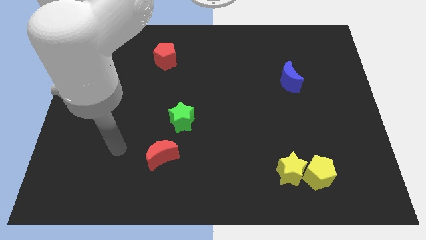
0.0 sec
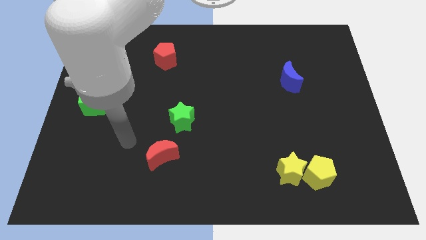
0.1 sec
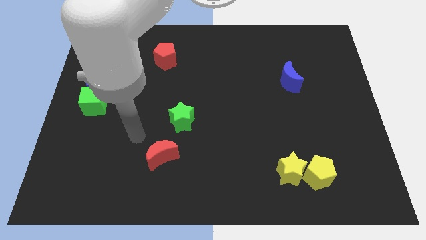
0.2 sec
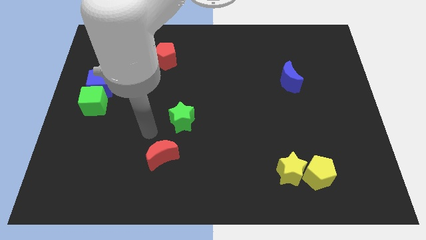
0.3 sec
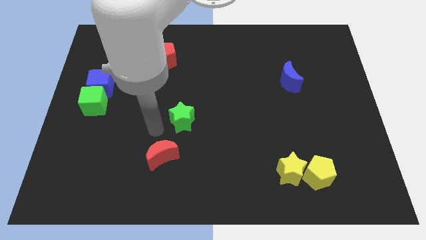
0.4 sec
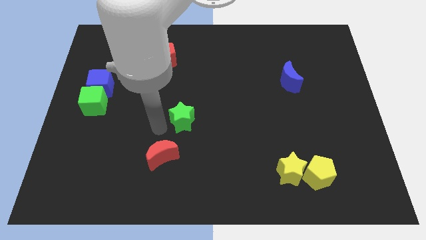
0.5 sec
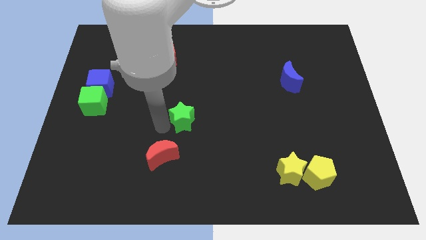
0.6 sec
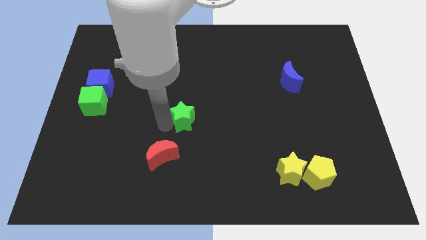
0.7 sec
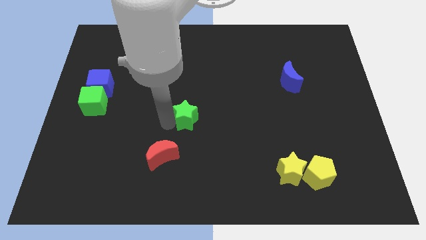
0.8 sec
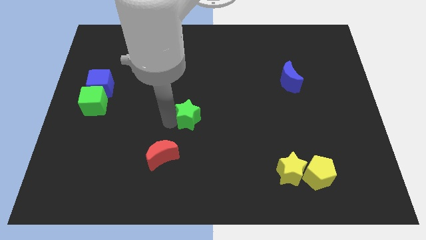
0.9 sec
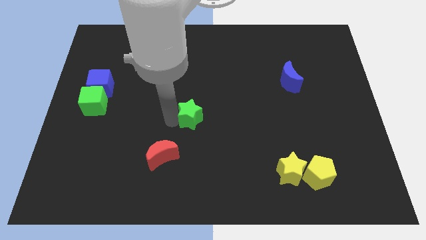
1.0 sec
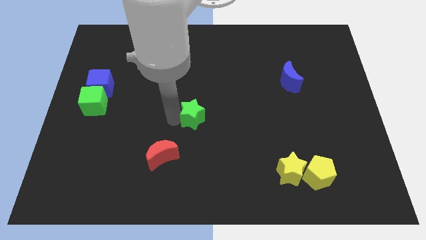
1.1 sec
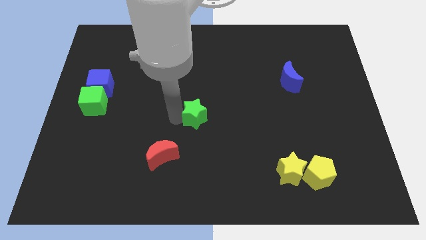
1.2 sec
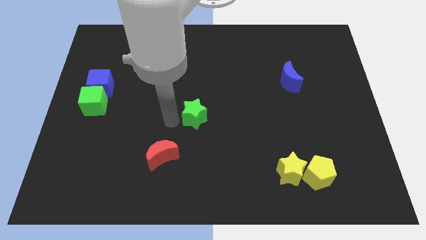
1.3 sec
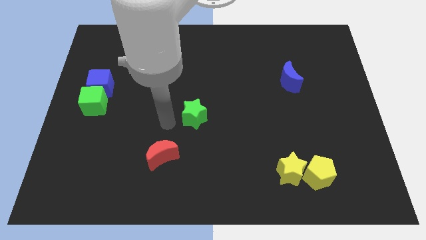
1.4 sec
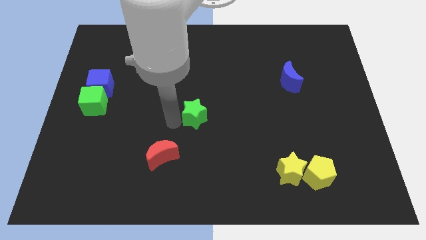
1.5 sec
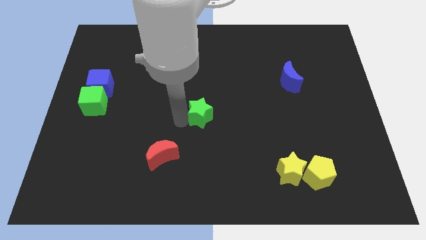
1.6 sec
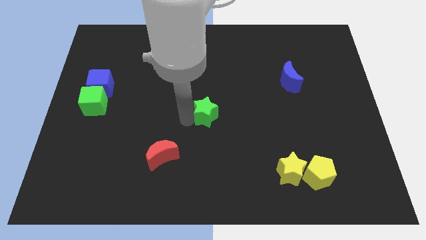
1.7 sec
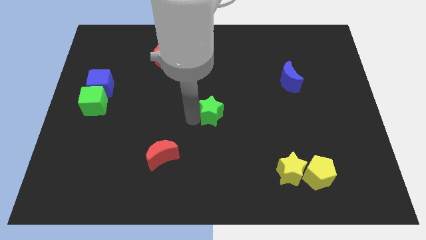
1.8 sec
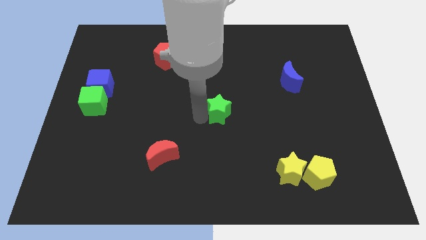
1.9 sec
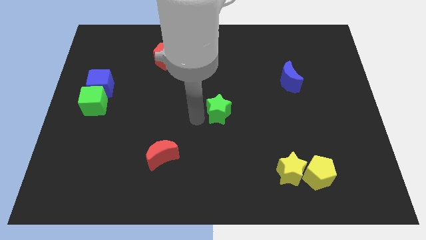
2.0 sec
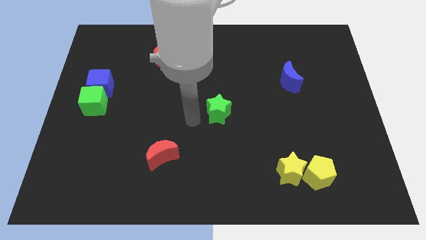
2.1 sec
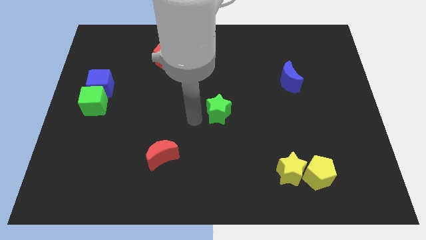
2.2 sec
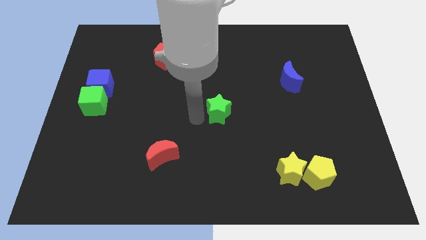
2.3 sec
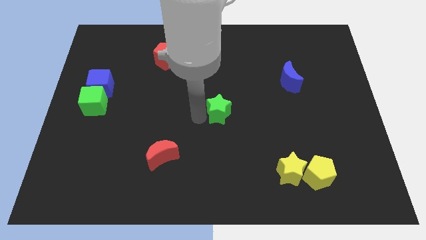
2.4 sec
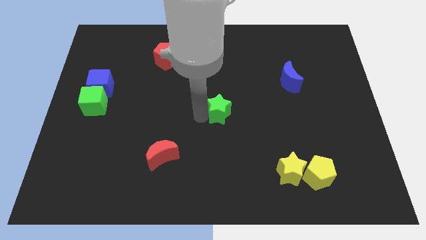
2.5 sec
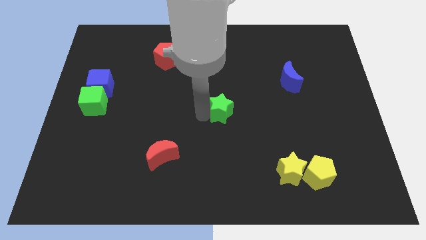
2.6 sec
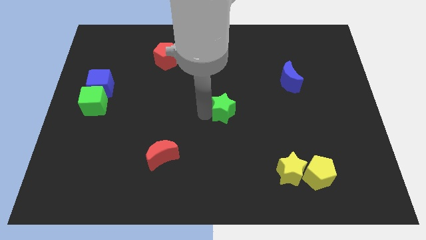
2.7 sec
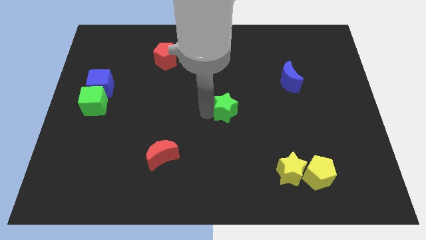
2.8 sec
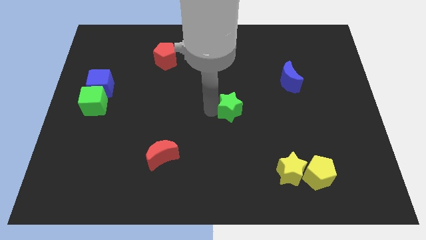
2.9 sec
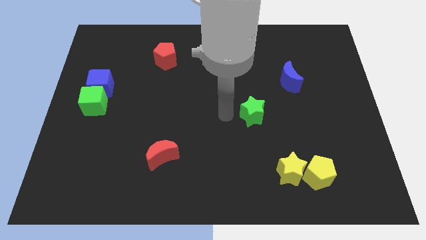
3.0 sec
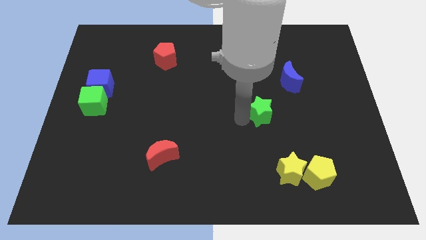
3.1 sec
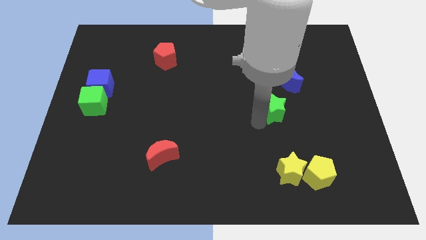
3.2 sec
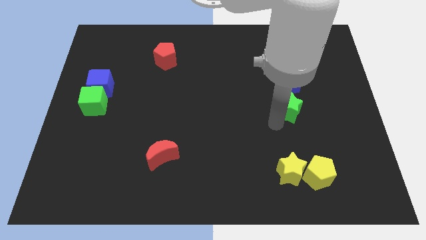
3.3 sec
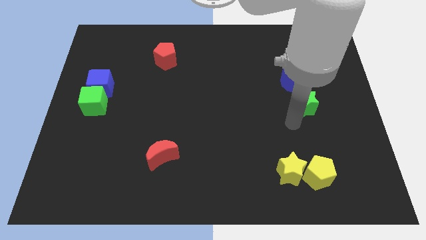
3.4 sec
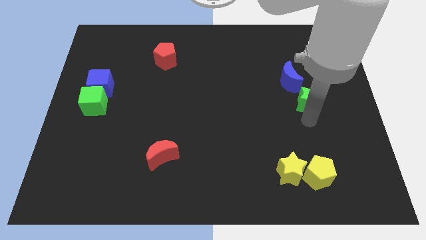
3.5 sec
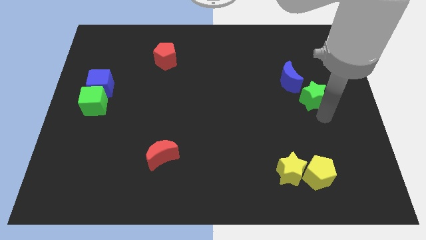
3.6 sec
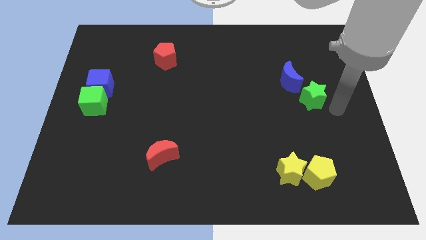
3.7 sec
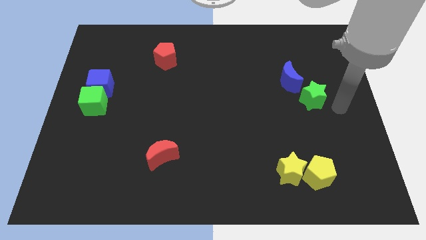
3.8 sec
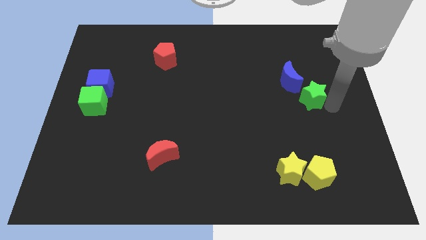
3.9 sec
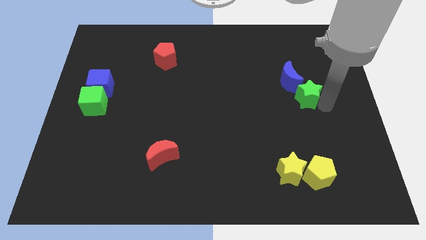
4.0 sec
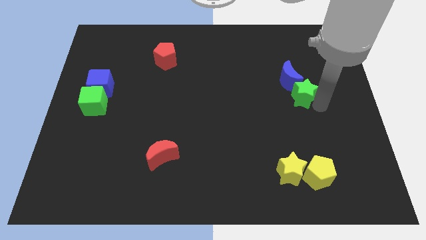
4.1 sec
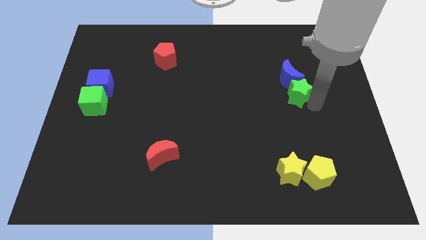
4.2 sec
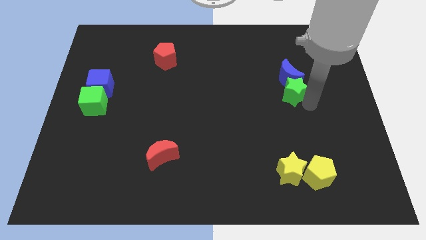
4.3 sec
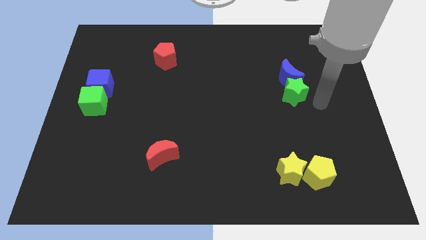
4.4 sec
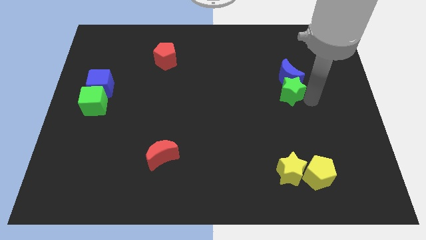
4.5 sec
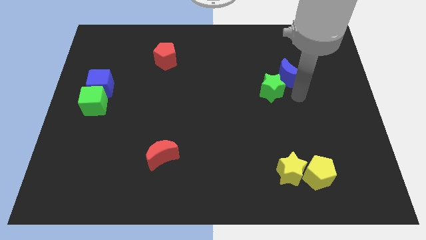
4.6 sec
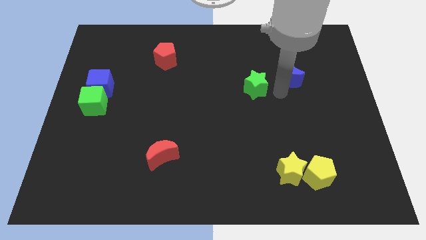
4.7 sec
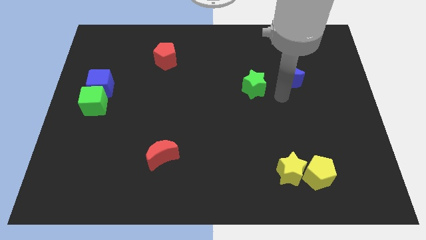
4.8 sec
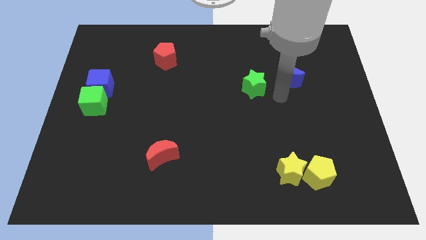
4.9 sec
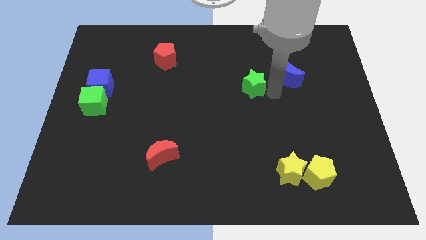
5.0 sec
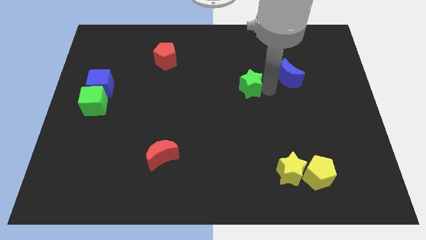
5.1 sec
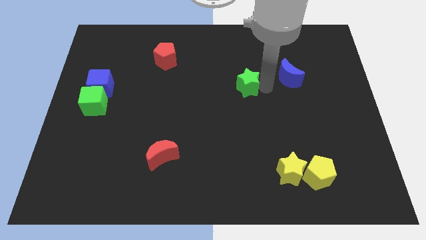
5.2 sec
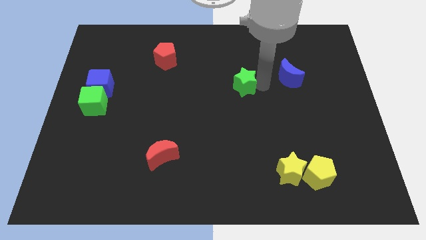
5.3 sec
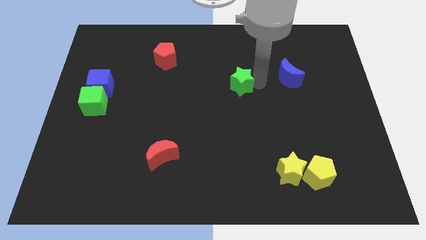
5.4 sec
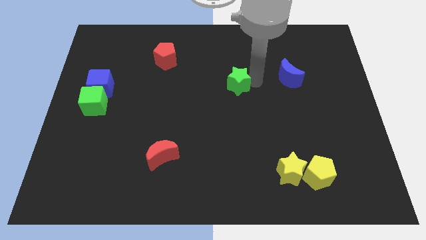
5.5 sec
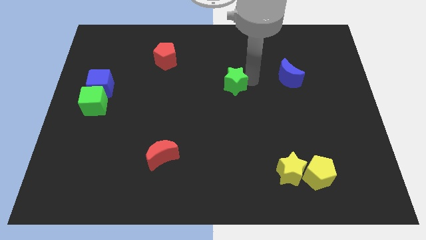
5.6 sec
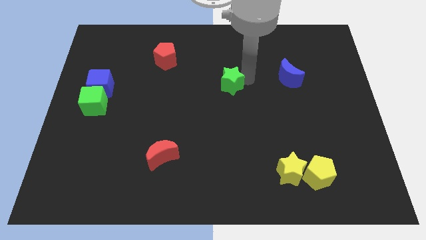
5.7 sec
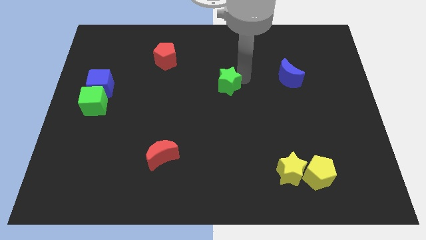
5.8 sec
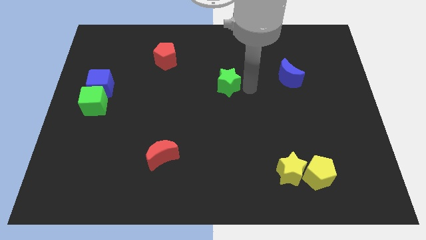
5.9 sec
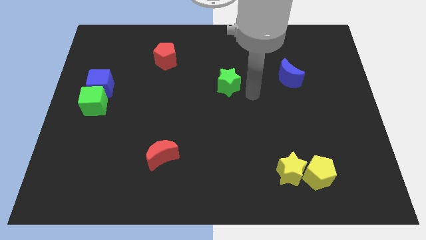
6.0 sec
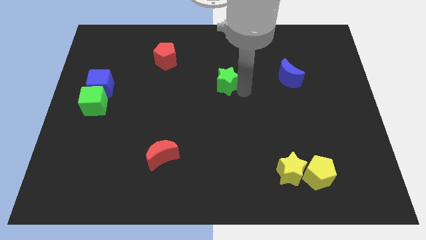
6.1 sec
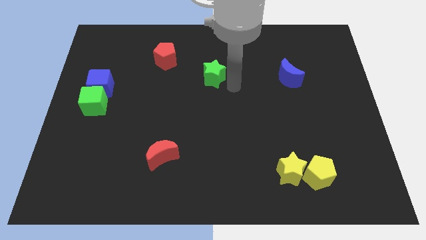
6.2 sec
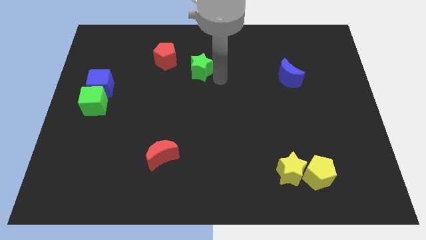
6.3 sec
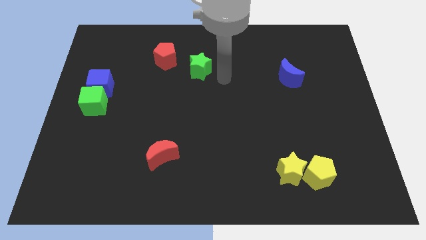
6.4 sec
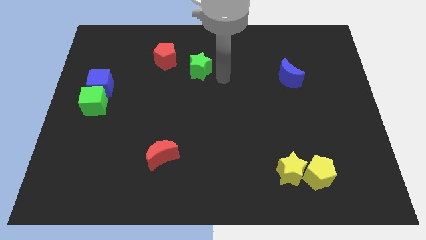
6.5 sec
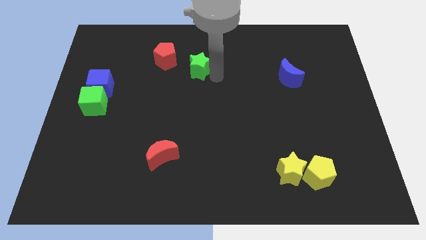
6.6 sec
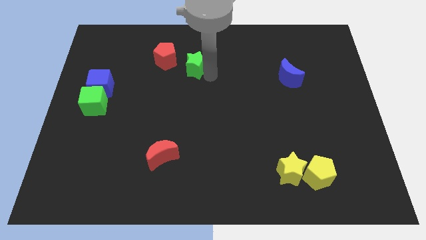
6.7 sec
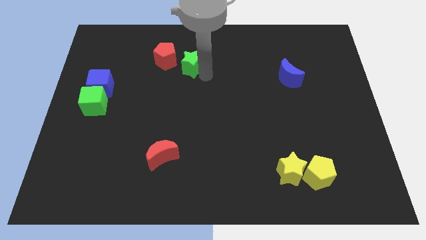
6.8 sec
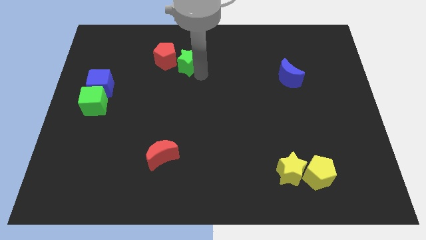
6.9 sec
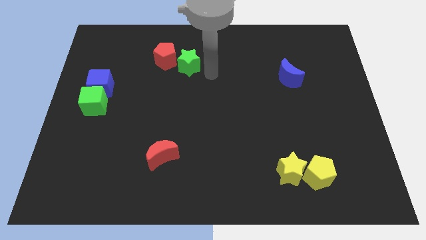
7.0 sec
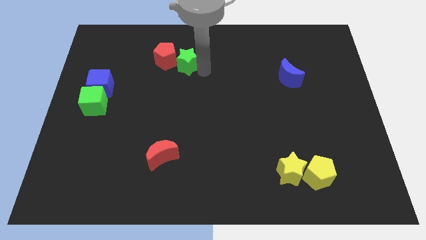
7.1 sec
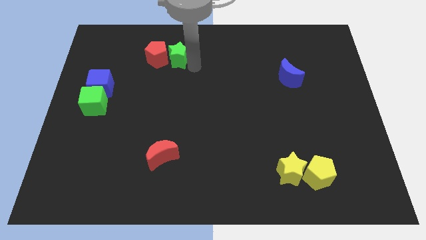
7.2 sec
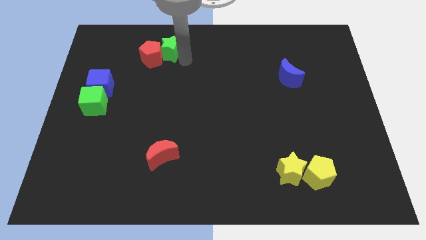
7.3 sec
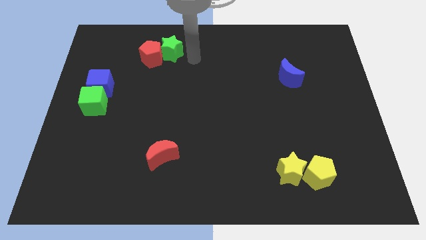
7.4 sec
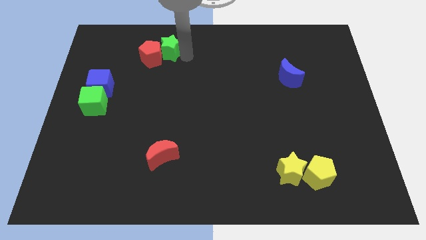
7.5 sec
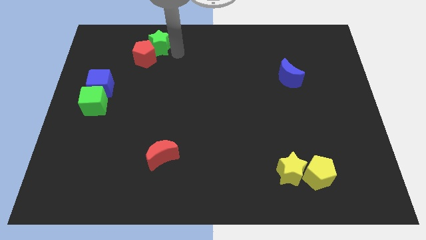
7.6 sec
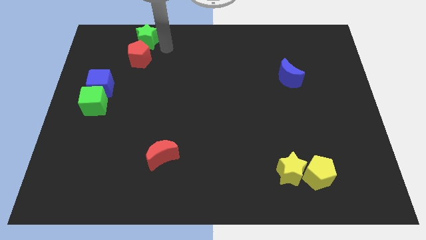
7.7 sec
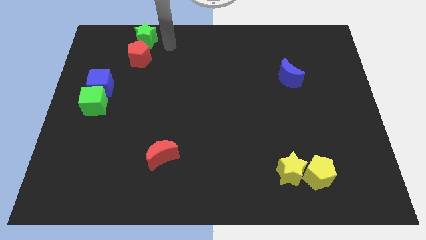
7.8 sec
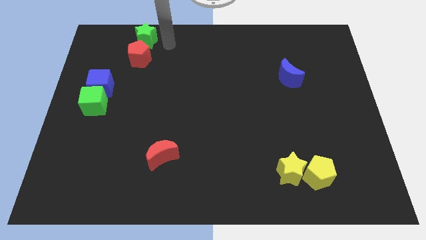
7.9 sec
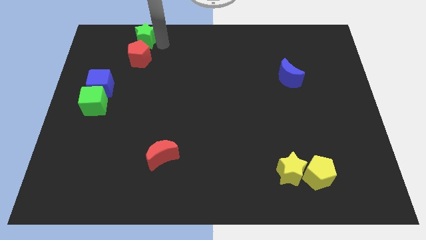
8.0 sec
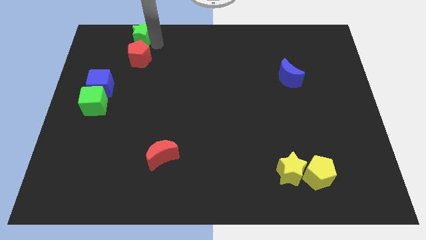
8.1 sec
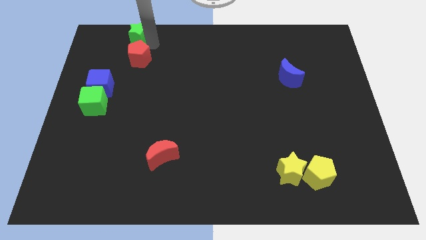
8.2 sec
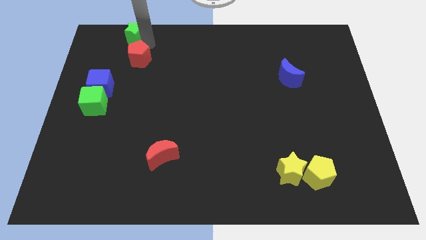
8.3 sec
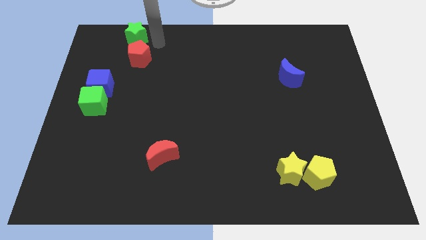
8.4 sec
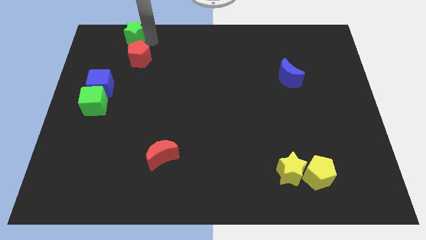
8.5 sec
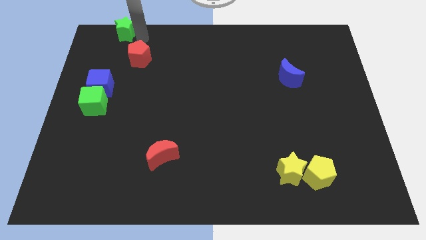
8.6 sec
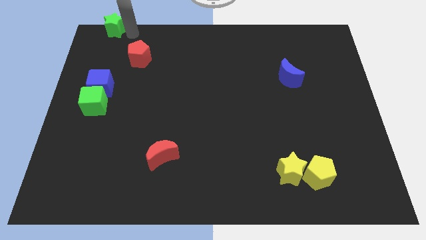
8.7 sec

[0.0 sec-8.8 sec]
move the green star to the top left of the board
